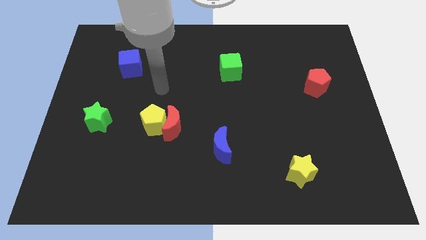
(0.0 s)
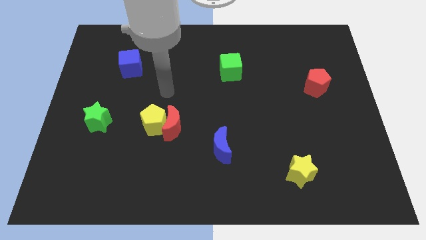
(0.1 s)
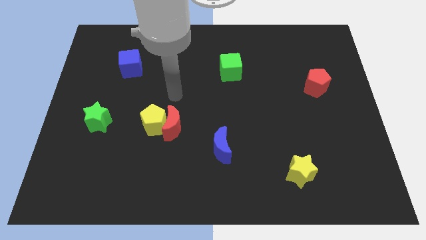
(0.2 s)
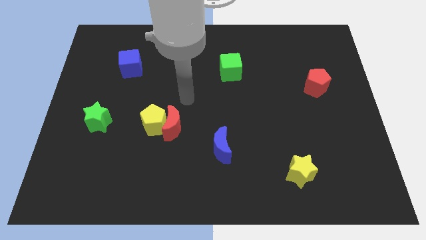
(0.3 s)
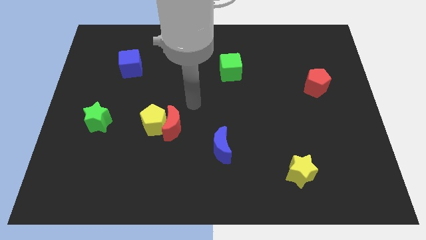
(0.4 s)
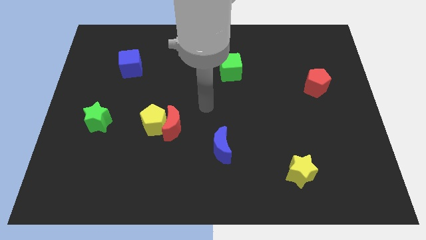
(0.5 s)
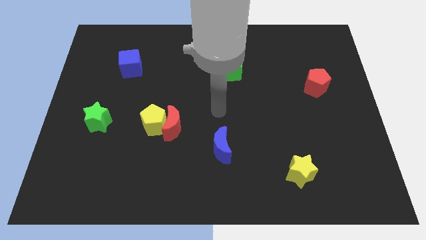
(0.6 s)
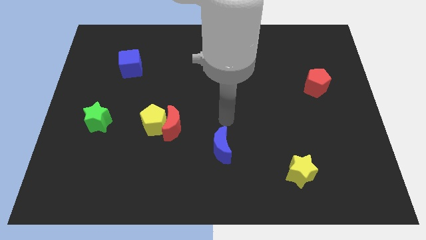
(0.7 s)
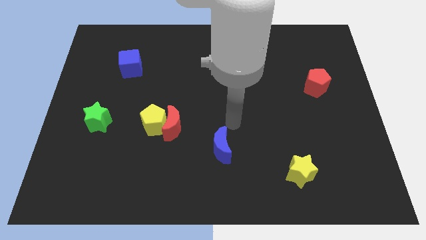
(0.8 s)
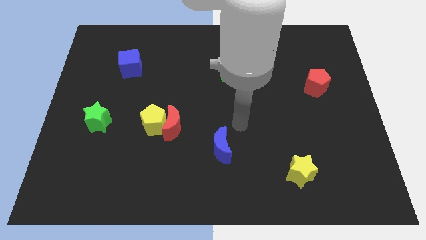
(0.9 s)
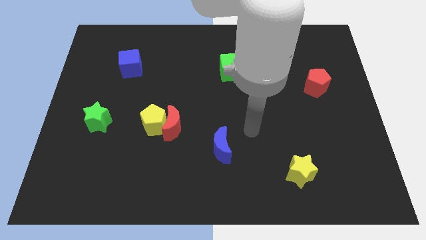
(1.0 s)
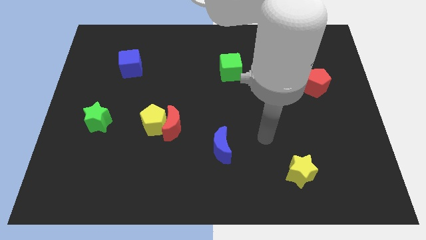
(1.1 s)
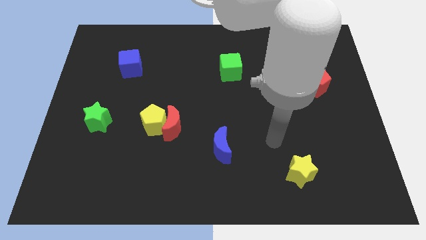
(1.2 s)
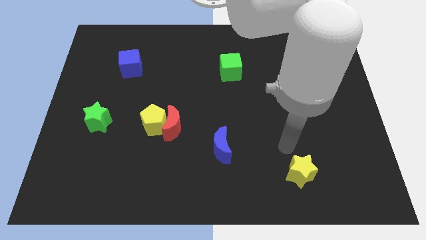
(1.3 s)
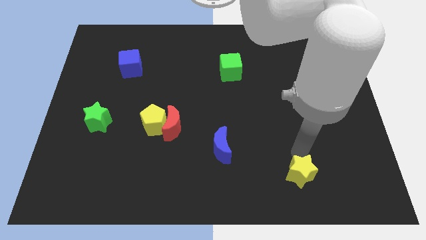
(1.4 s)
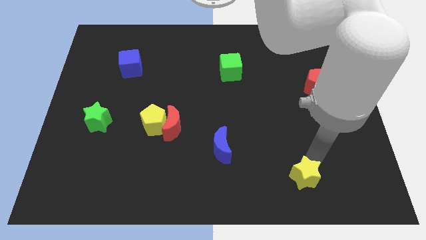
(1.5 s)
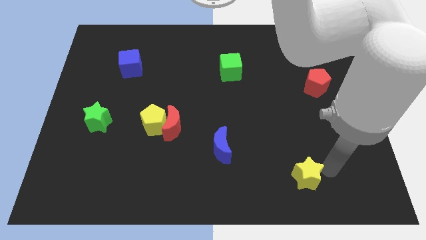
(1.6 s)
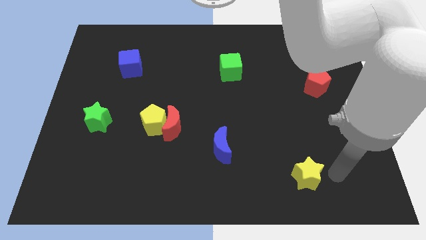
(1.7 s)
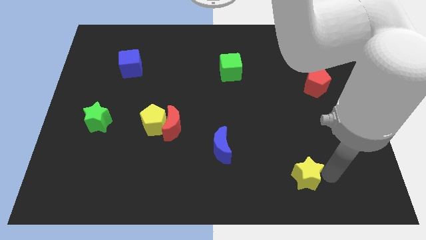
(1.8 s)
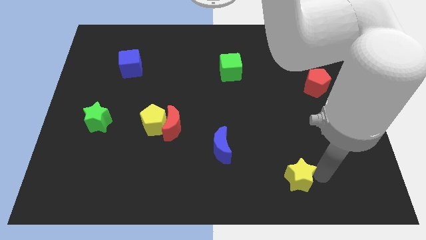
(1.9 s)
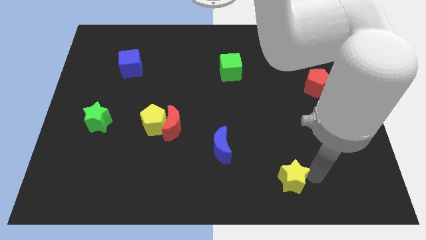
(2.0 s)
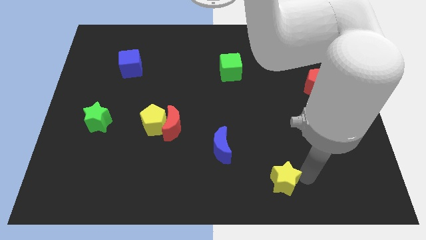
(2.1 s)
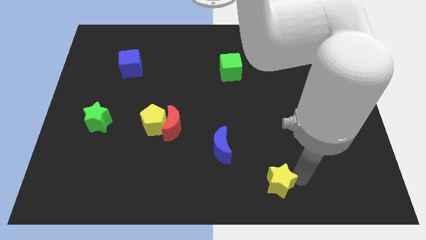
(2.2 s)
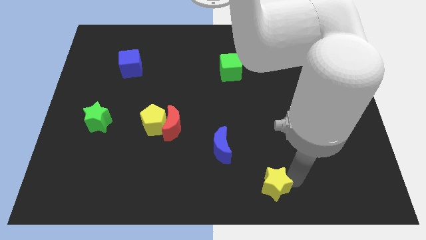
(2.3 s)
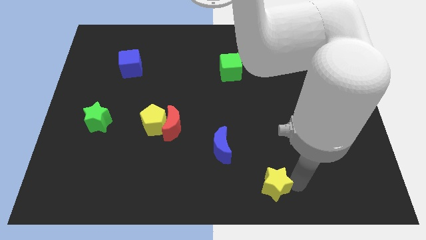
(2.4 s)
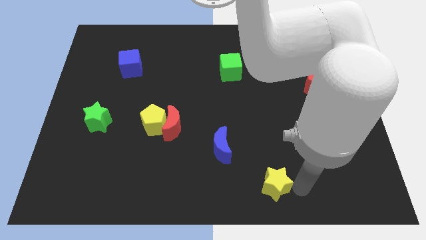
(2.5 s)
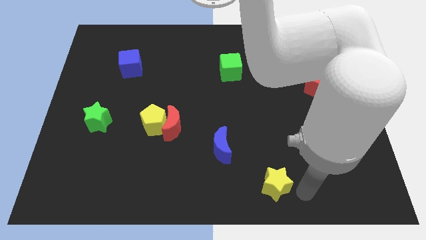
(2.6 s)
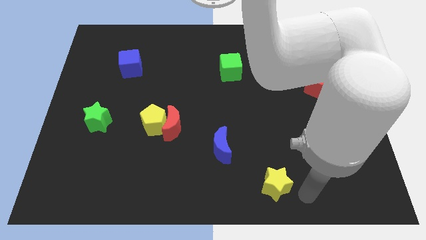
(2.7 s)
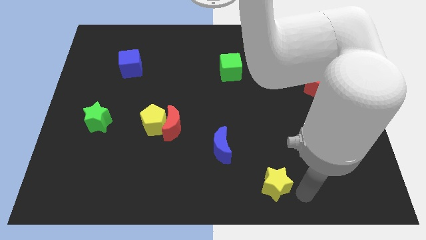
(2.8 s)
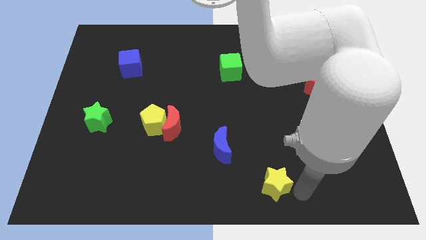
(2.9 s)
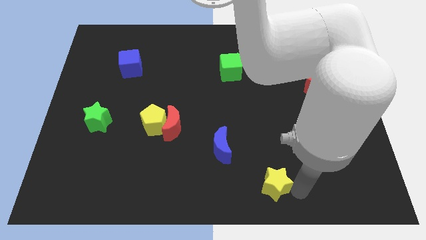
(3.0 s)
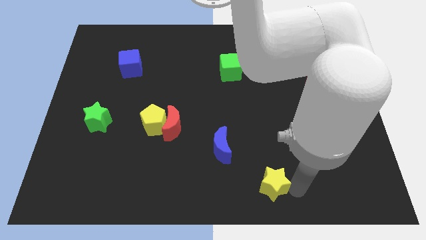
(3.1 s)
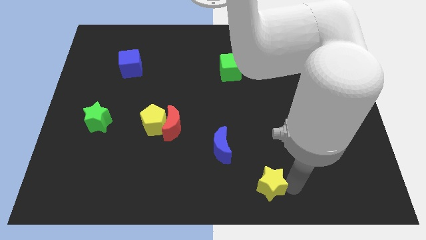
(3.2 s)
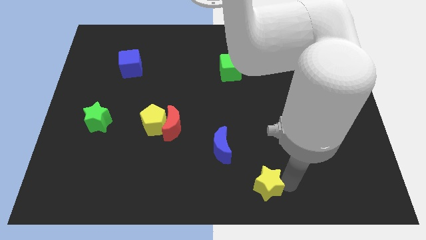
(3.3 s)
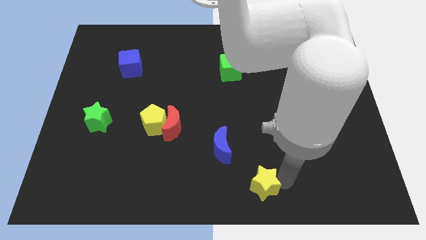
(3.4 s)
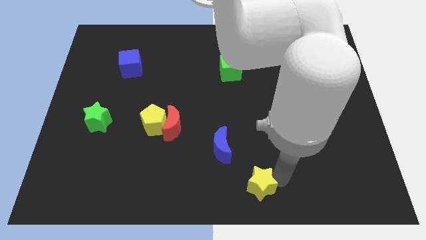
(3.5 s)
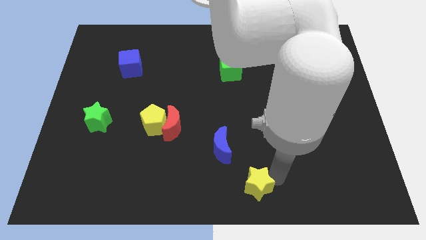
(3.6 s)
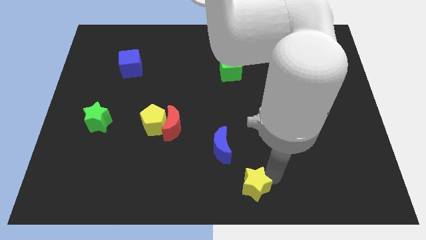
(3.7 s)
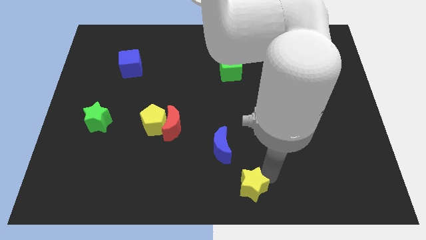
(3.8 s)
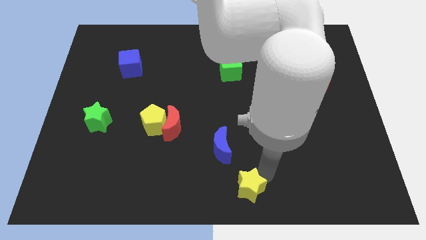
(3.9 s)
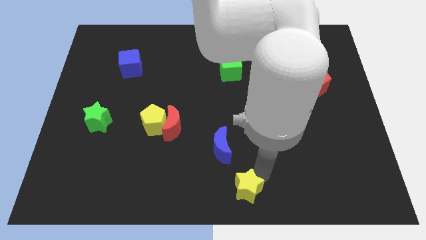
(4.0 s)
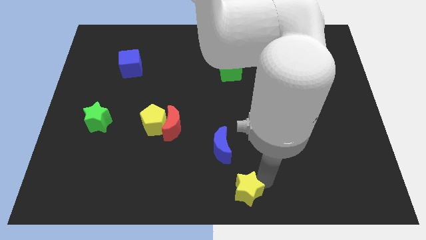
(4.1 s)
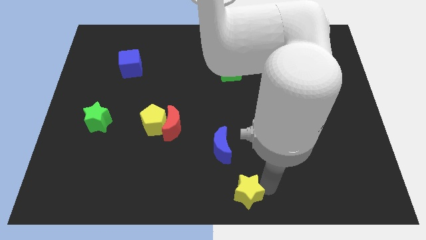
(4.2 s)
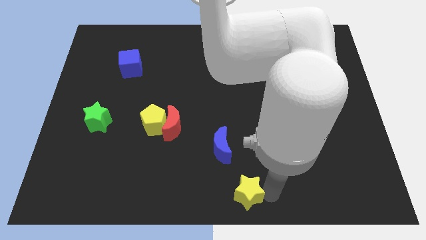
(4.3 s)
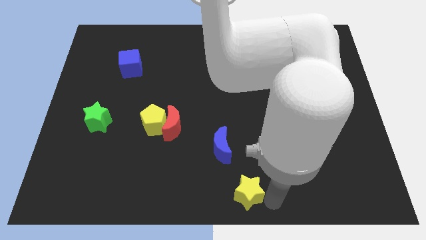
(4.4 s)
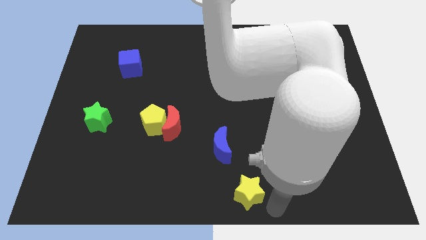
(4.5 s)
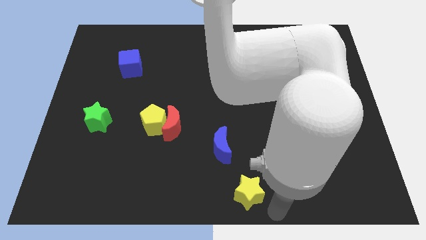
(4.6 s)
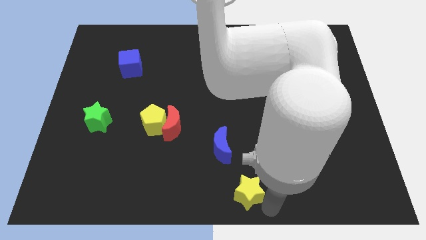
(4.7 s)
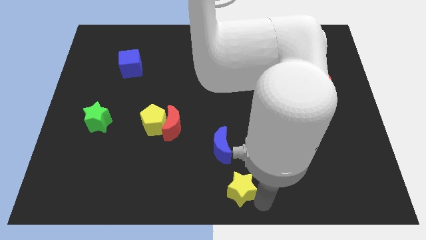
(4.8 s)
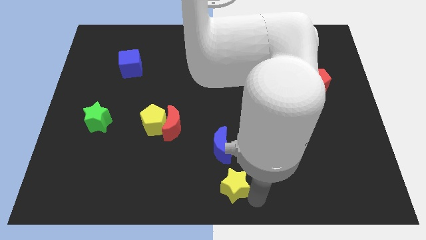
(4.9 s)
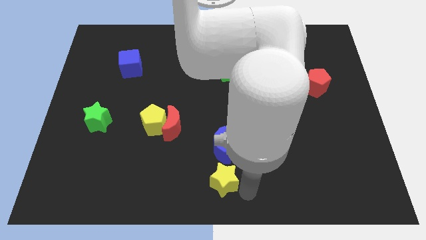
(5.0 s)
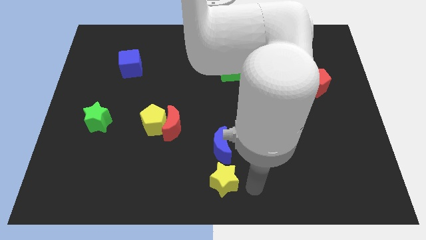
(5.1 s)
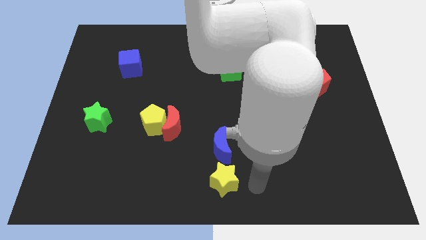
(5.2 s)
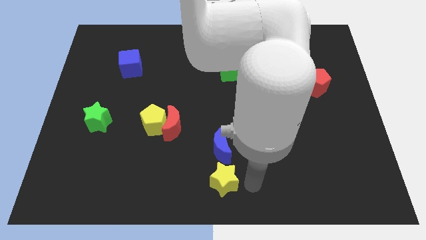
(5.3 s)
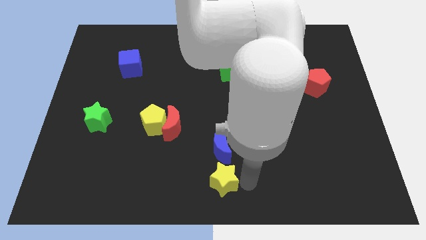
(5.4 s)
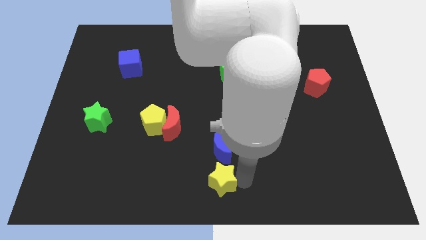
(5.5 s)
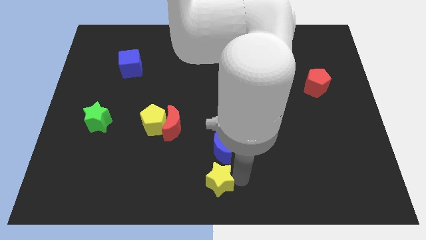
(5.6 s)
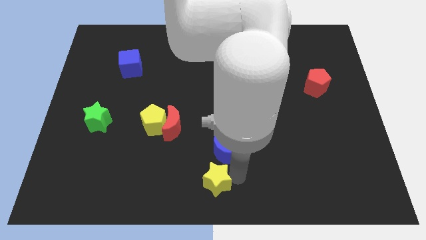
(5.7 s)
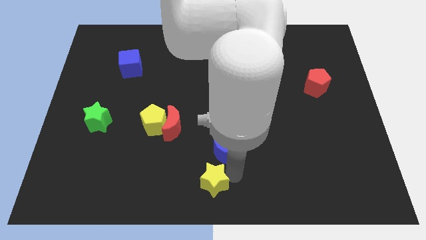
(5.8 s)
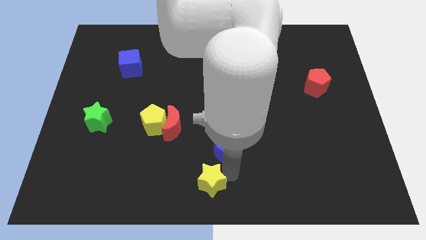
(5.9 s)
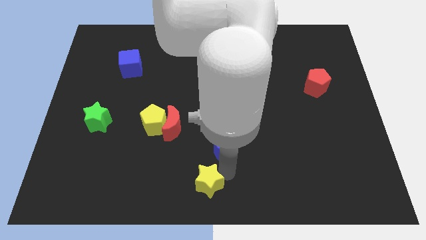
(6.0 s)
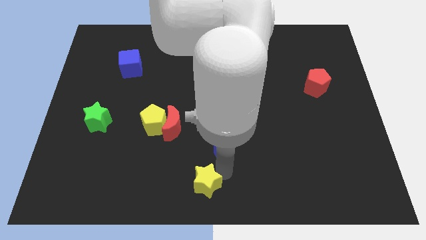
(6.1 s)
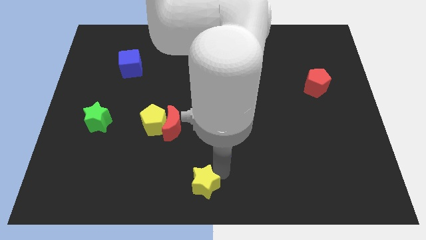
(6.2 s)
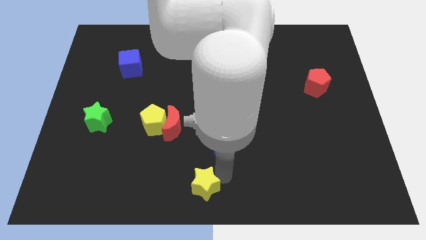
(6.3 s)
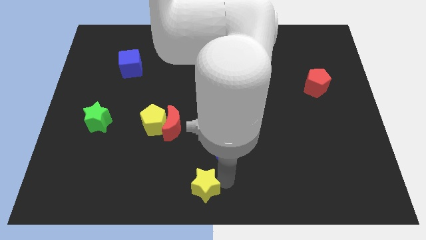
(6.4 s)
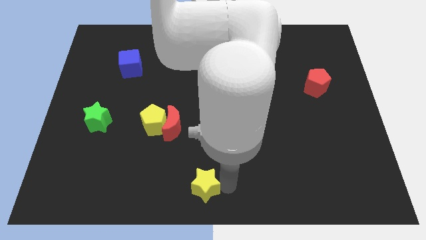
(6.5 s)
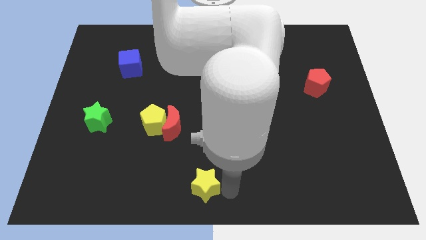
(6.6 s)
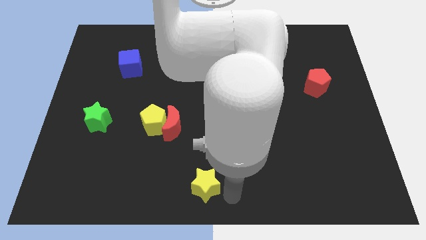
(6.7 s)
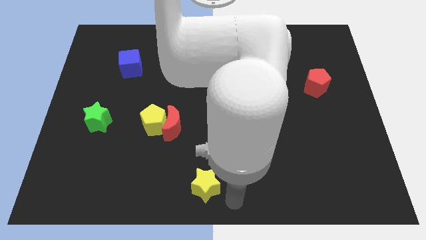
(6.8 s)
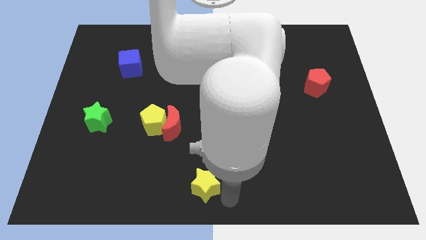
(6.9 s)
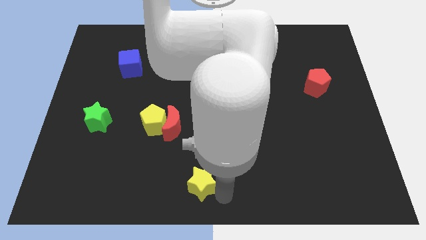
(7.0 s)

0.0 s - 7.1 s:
slide the yellow star left

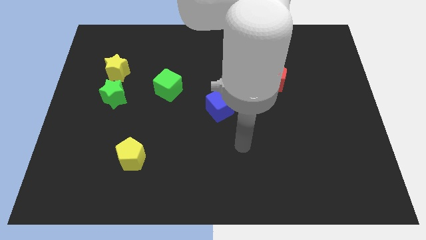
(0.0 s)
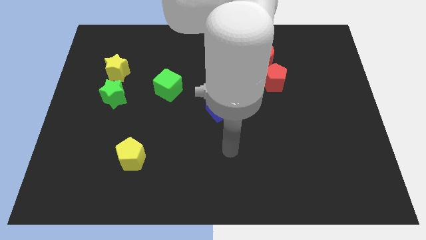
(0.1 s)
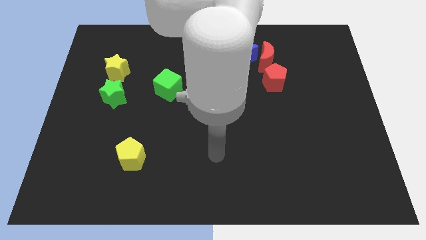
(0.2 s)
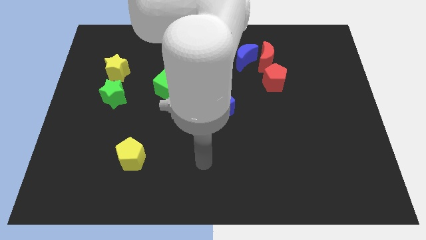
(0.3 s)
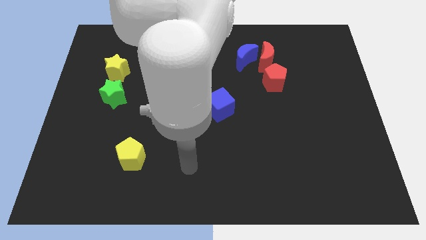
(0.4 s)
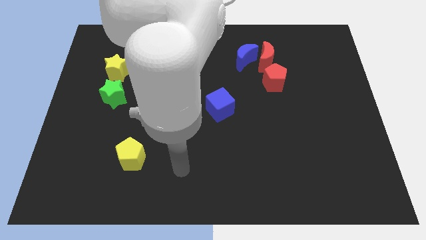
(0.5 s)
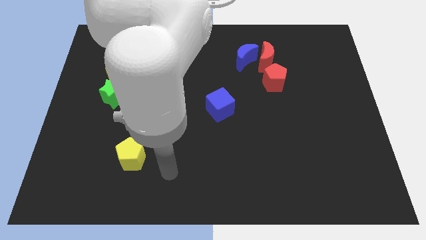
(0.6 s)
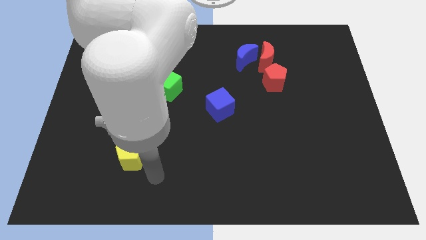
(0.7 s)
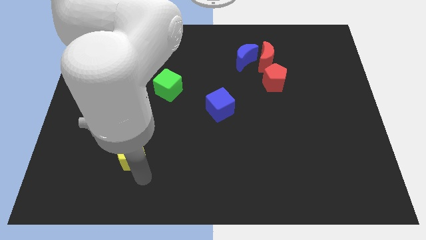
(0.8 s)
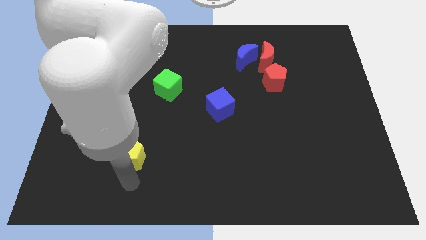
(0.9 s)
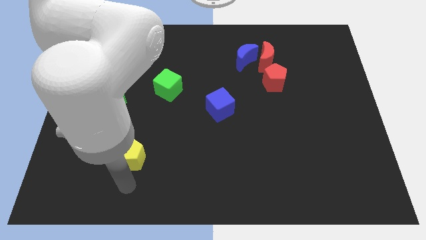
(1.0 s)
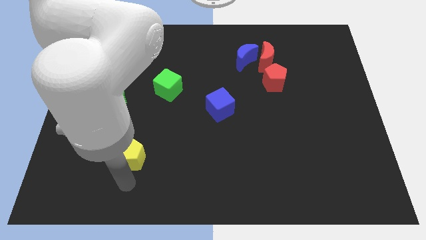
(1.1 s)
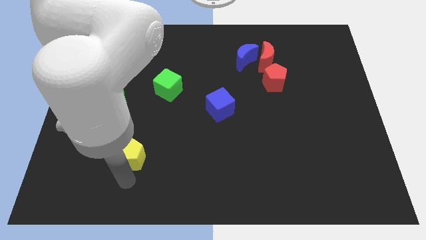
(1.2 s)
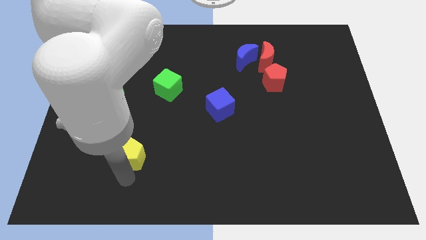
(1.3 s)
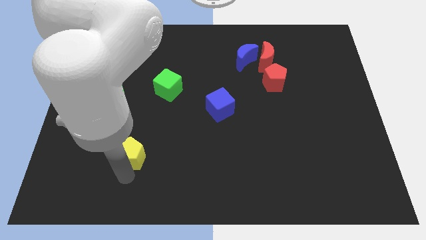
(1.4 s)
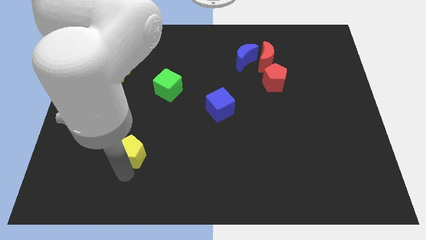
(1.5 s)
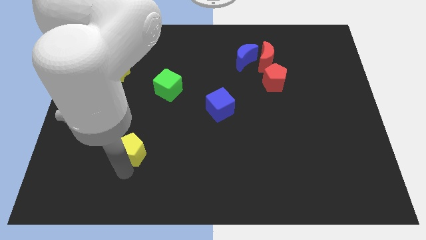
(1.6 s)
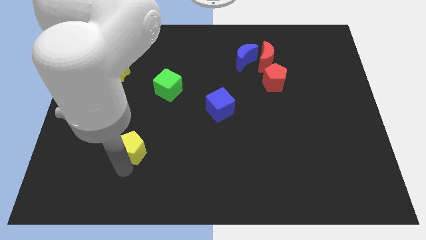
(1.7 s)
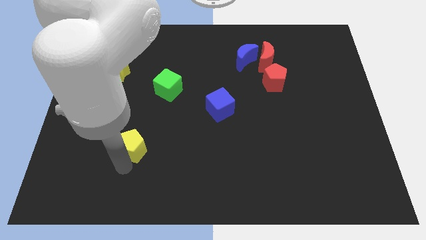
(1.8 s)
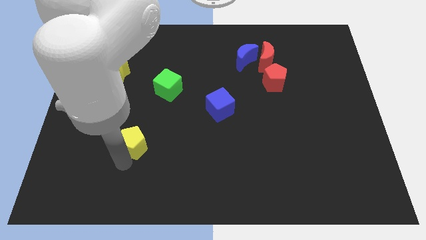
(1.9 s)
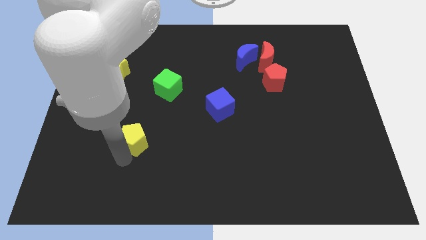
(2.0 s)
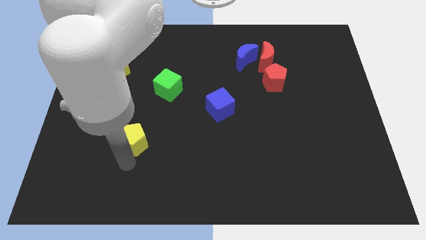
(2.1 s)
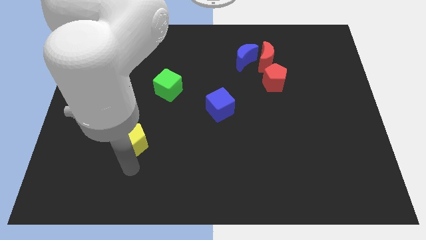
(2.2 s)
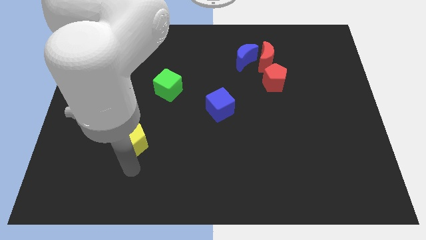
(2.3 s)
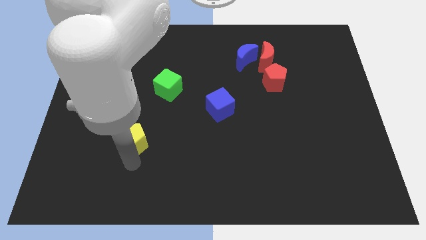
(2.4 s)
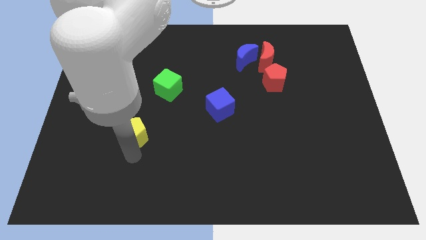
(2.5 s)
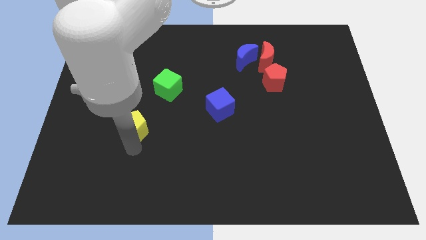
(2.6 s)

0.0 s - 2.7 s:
move the yellow pentagon up slightly
